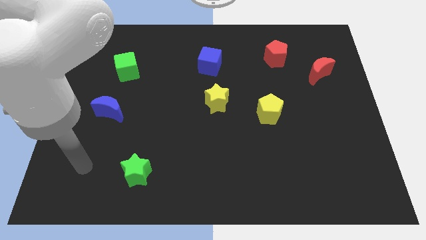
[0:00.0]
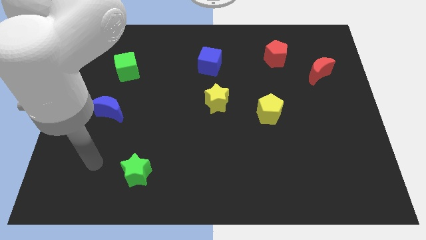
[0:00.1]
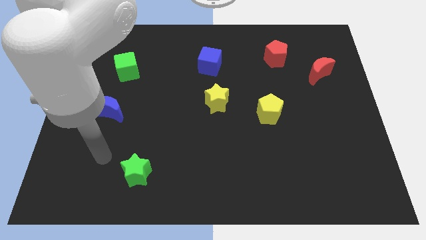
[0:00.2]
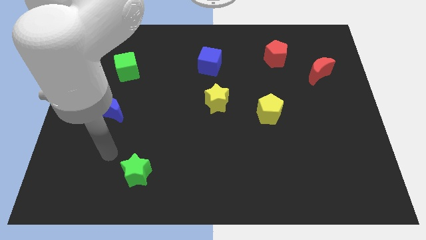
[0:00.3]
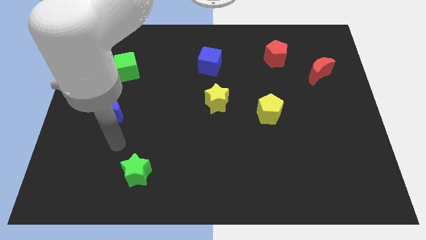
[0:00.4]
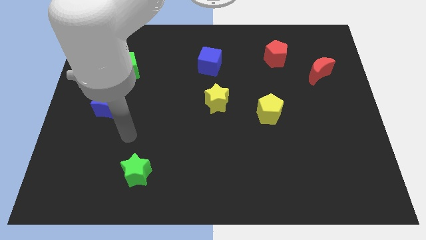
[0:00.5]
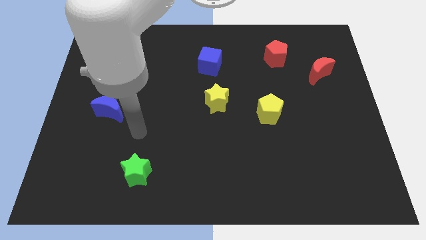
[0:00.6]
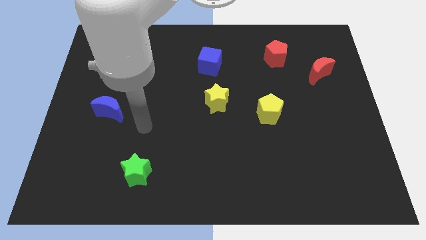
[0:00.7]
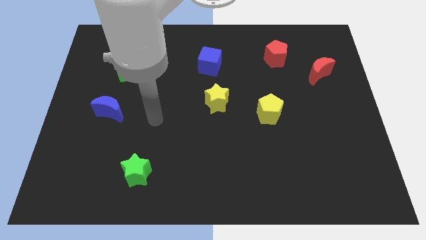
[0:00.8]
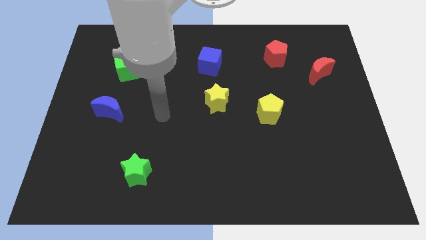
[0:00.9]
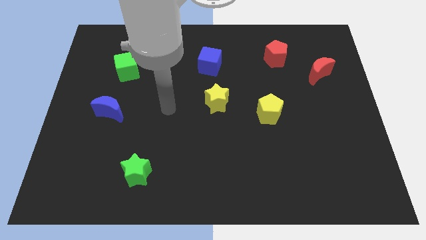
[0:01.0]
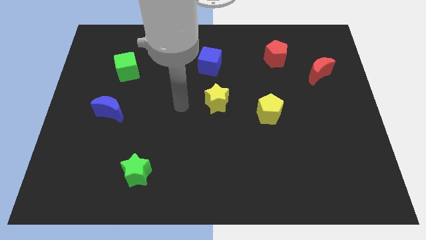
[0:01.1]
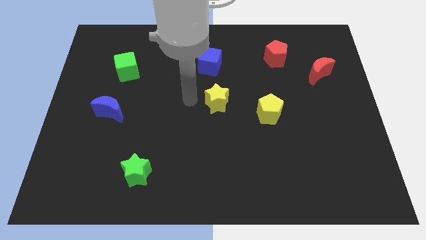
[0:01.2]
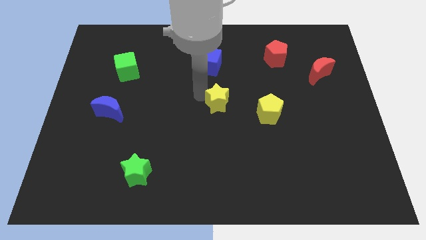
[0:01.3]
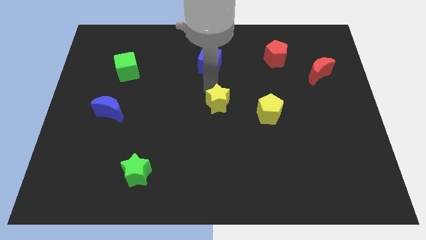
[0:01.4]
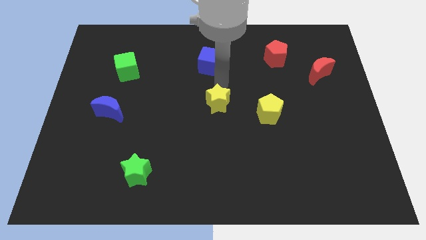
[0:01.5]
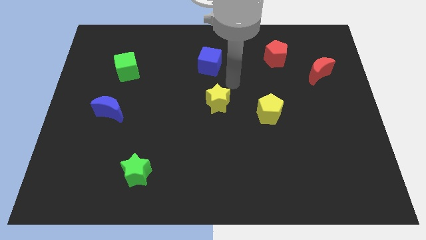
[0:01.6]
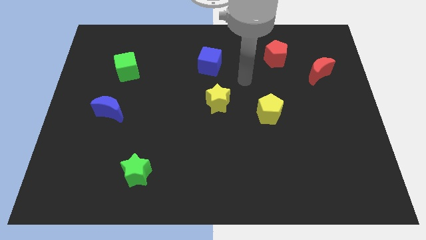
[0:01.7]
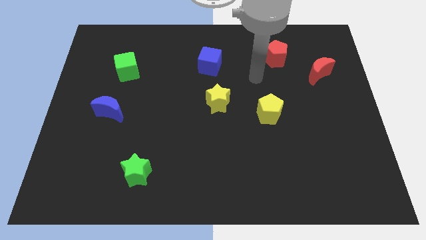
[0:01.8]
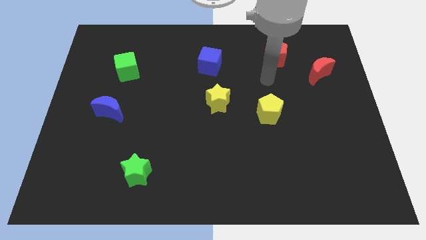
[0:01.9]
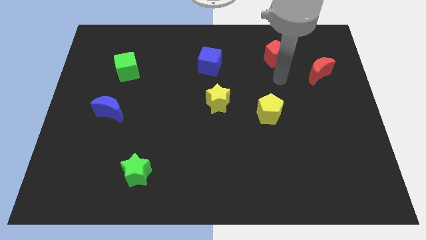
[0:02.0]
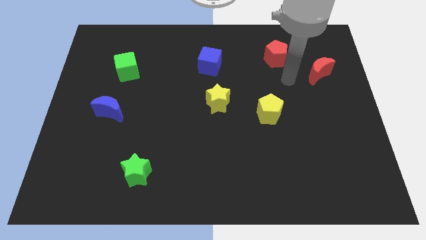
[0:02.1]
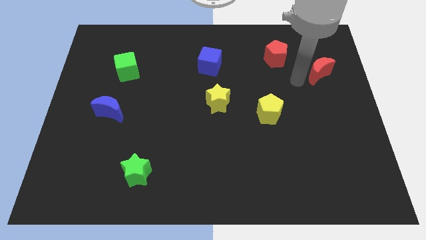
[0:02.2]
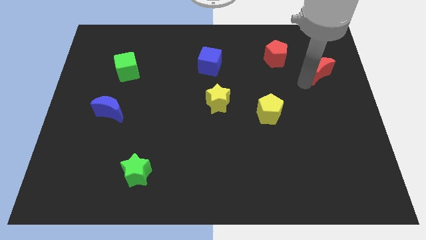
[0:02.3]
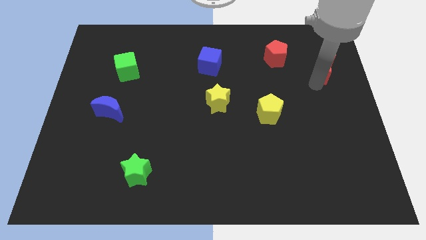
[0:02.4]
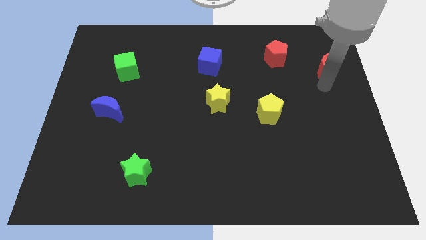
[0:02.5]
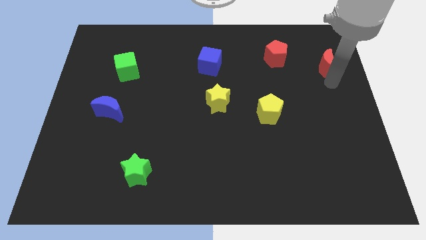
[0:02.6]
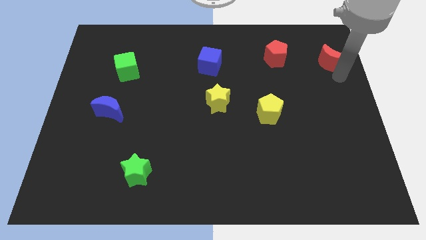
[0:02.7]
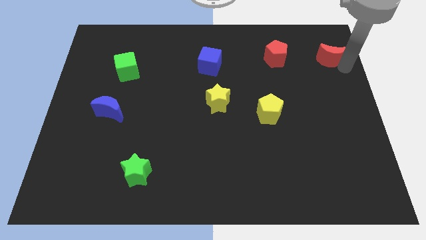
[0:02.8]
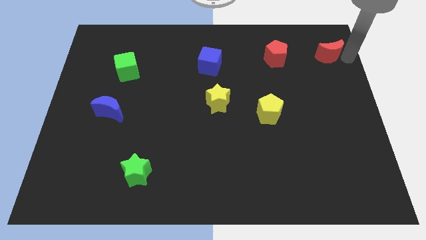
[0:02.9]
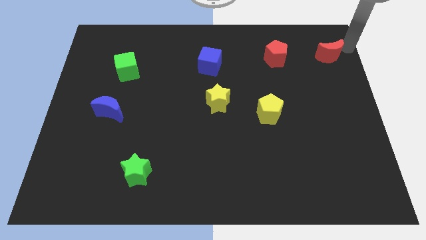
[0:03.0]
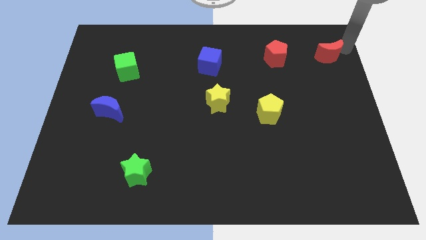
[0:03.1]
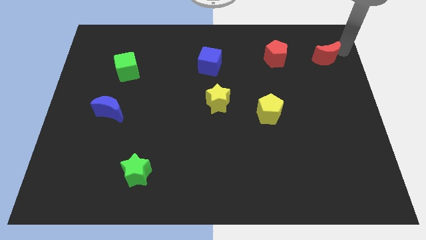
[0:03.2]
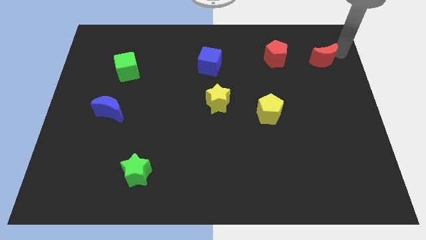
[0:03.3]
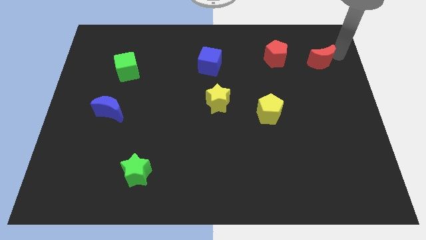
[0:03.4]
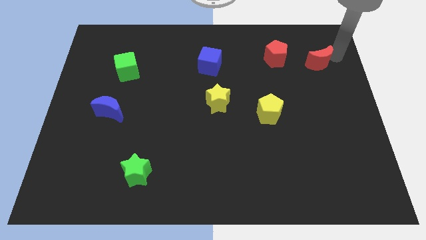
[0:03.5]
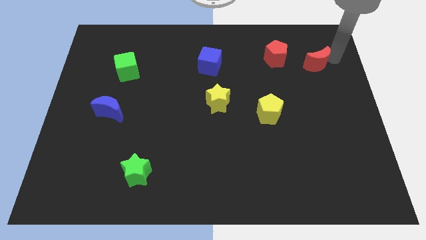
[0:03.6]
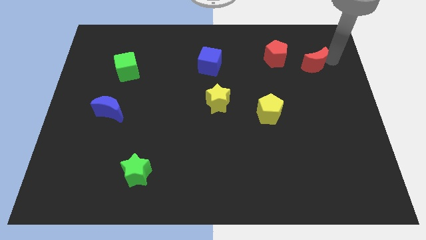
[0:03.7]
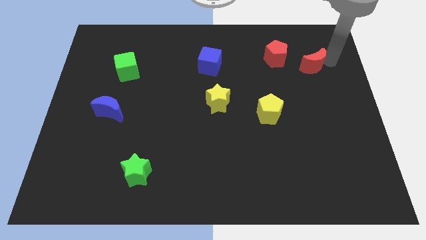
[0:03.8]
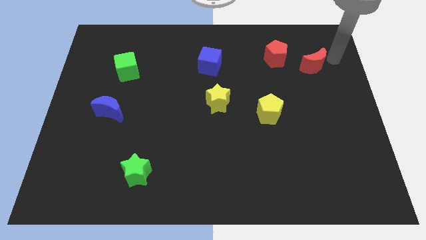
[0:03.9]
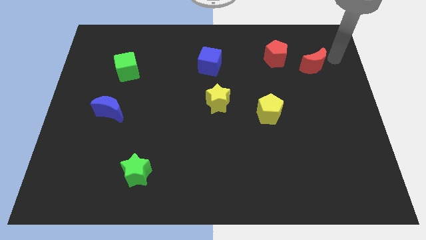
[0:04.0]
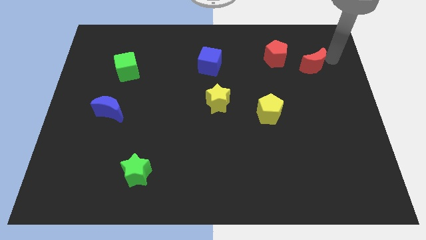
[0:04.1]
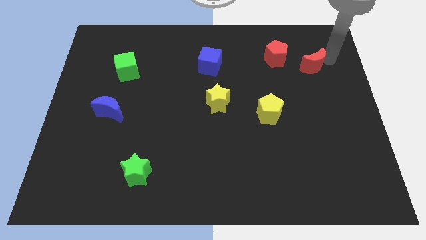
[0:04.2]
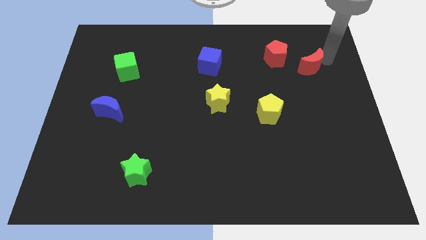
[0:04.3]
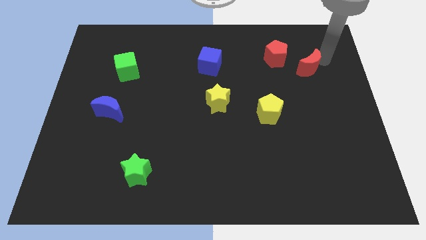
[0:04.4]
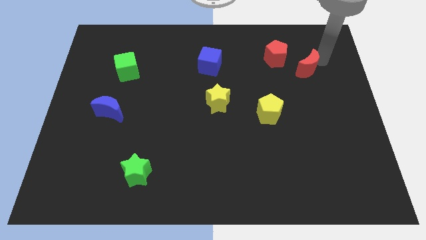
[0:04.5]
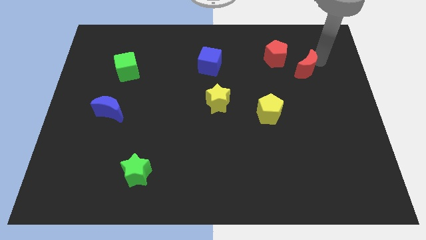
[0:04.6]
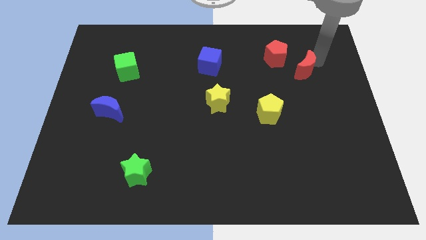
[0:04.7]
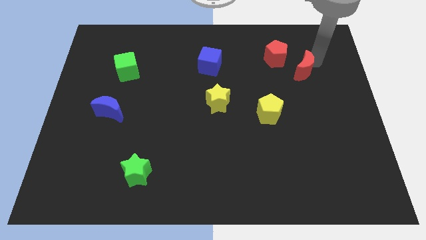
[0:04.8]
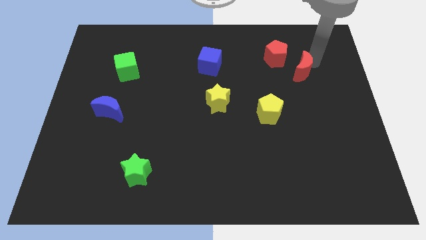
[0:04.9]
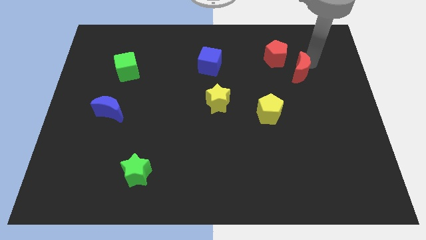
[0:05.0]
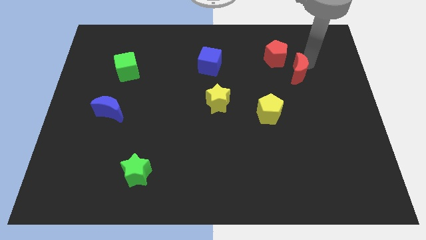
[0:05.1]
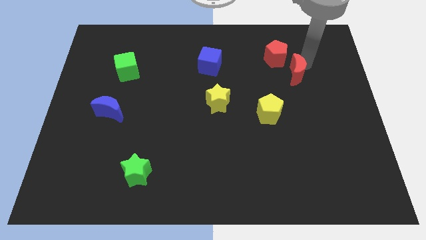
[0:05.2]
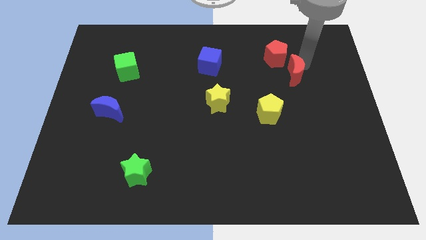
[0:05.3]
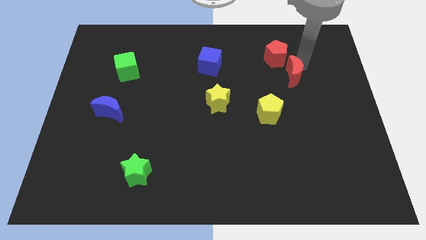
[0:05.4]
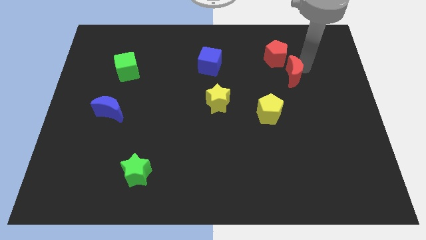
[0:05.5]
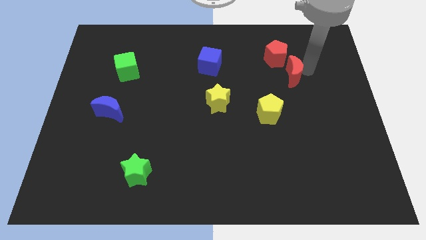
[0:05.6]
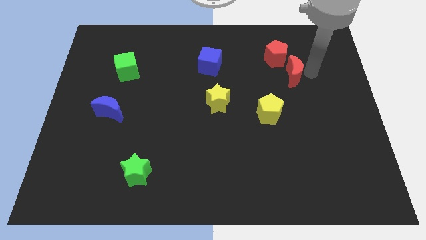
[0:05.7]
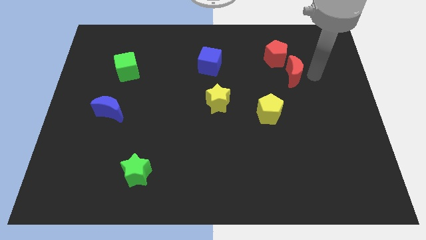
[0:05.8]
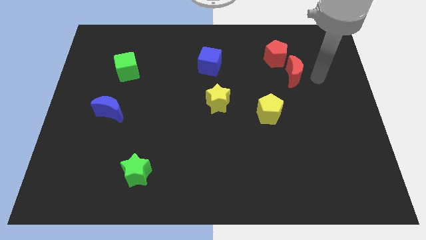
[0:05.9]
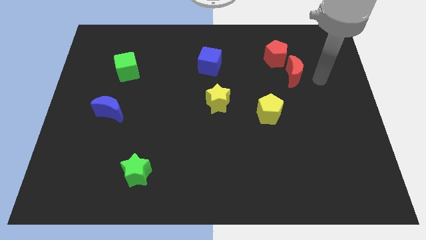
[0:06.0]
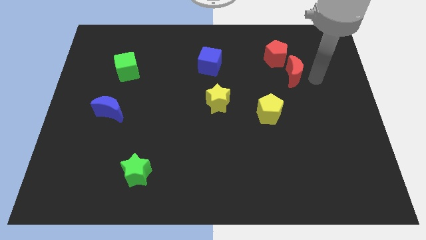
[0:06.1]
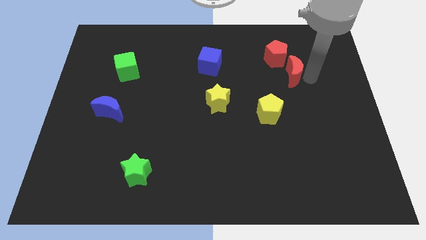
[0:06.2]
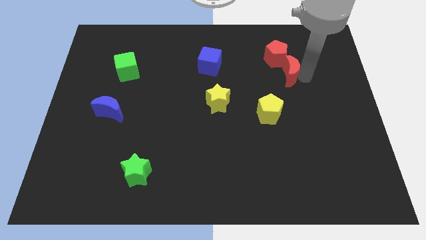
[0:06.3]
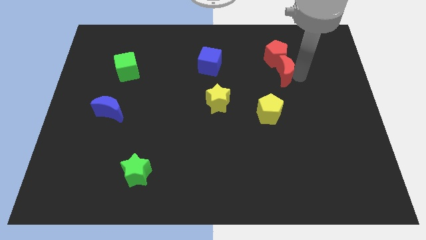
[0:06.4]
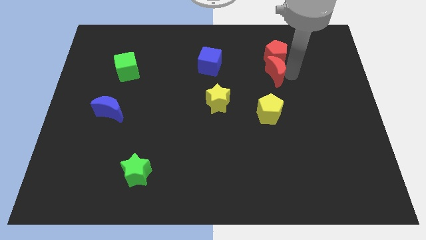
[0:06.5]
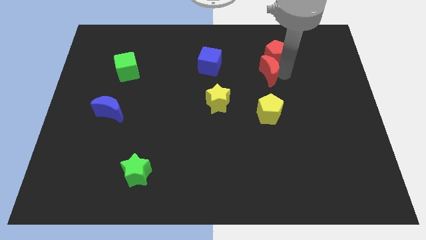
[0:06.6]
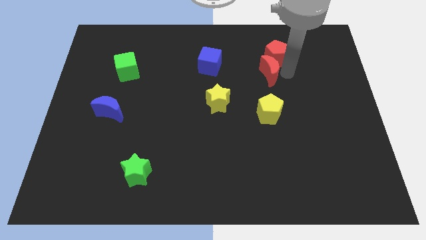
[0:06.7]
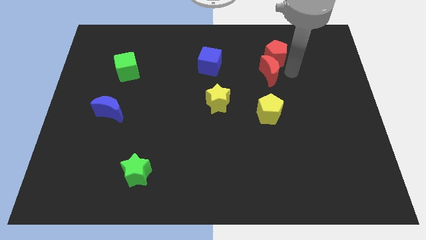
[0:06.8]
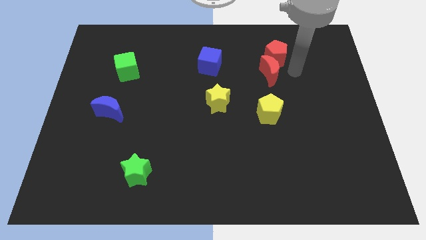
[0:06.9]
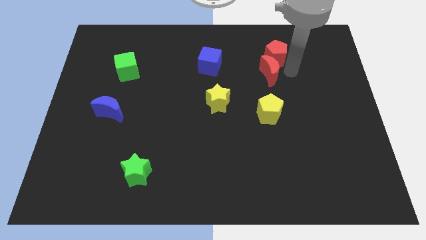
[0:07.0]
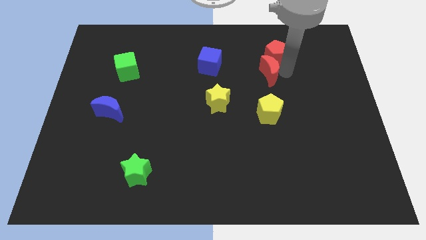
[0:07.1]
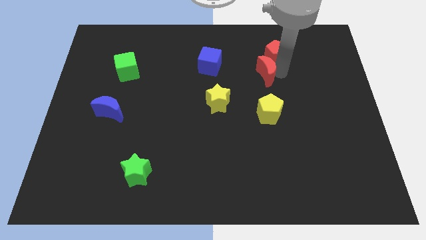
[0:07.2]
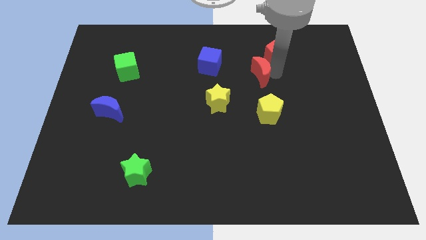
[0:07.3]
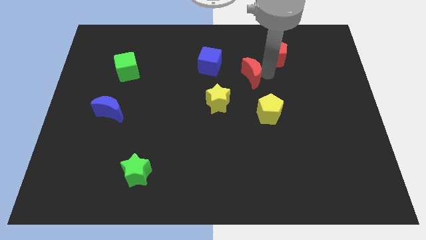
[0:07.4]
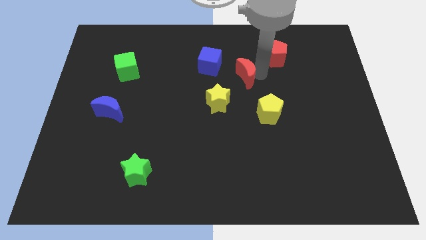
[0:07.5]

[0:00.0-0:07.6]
move the red moon diagonally down and to the right of the blue cube
